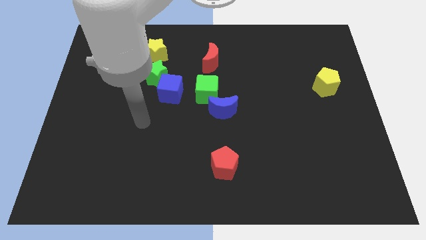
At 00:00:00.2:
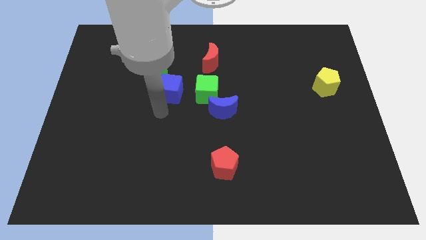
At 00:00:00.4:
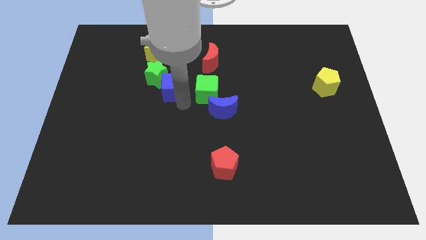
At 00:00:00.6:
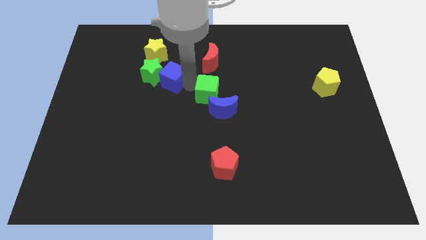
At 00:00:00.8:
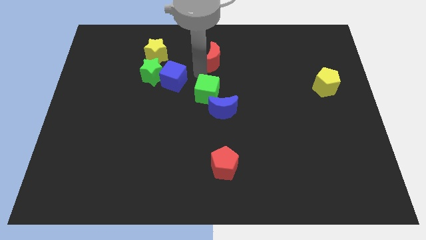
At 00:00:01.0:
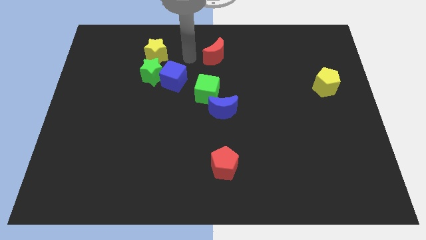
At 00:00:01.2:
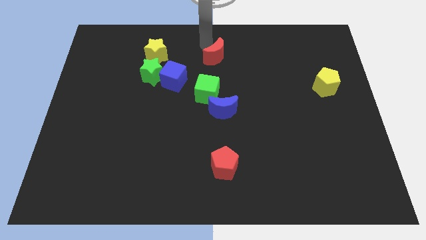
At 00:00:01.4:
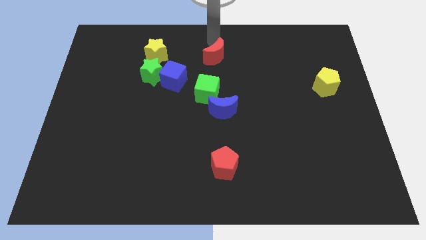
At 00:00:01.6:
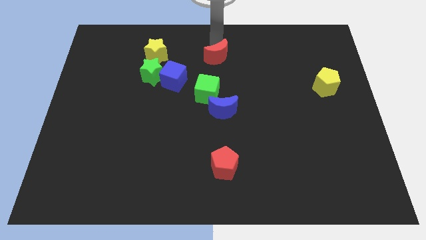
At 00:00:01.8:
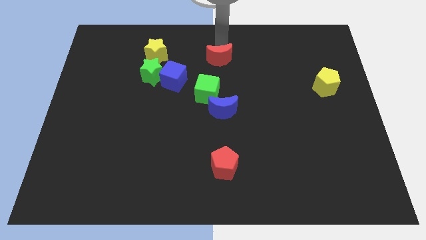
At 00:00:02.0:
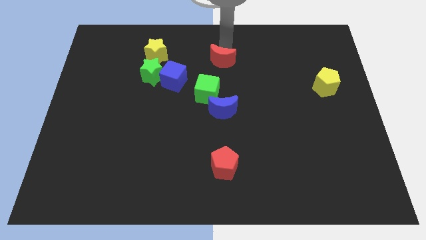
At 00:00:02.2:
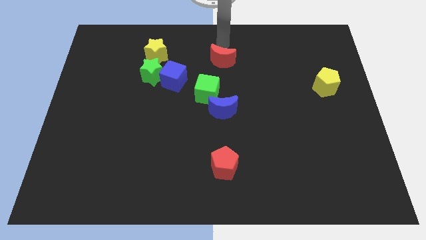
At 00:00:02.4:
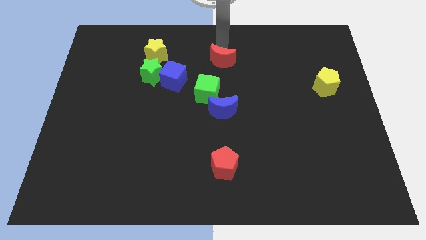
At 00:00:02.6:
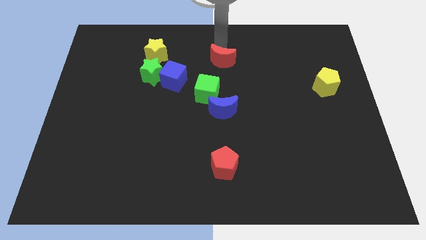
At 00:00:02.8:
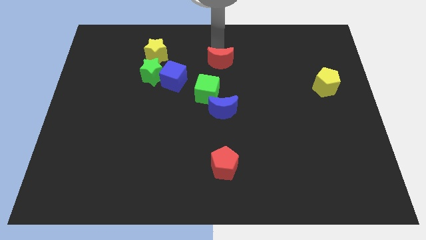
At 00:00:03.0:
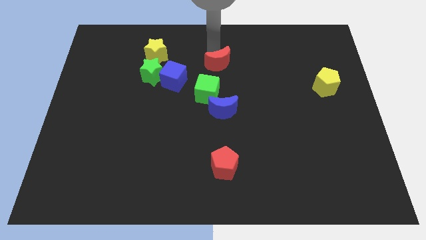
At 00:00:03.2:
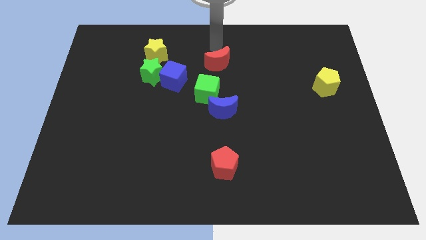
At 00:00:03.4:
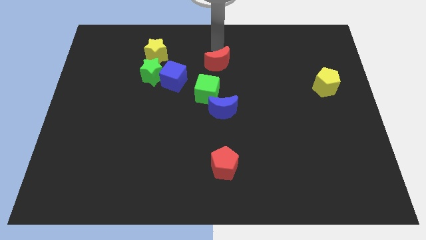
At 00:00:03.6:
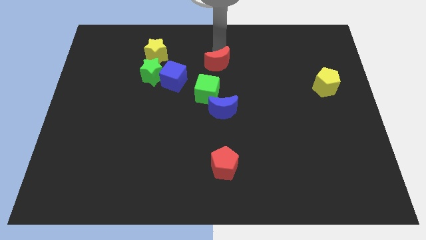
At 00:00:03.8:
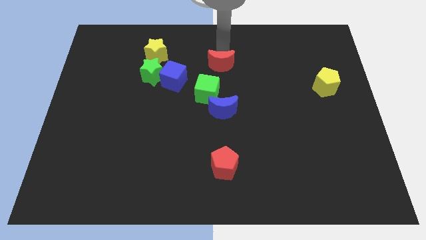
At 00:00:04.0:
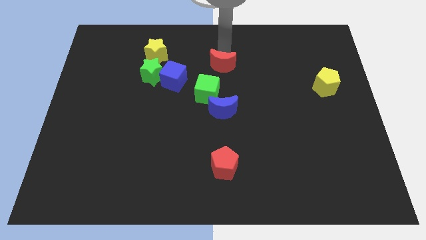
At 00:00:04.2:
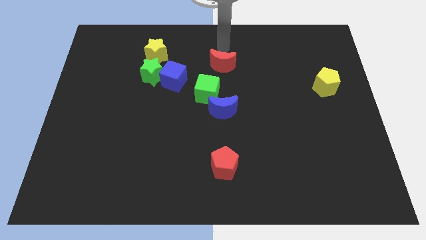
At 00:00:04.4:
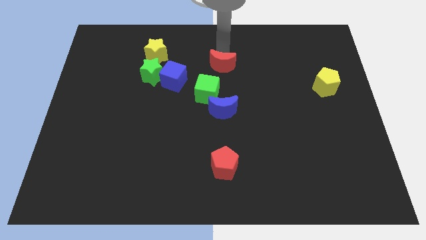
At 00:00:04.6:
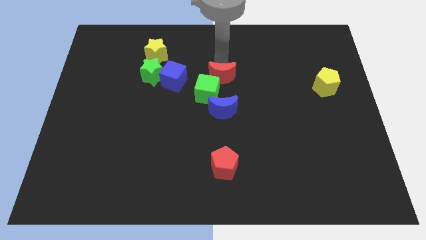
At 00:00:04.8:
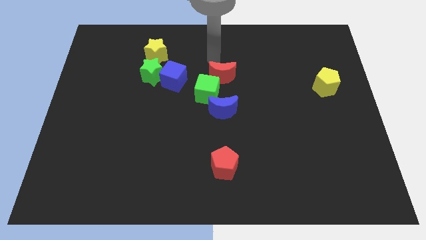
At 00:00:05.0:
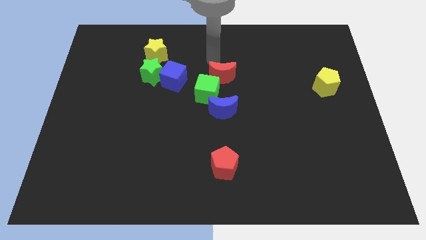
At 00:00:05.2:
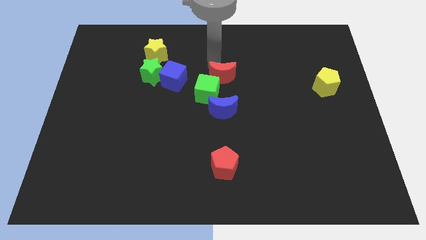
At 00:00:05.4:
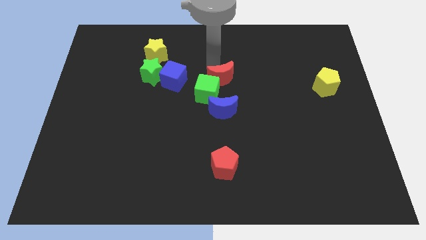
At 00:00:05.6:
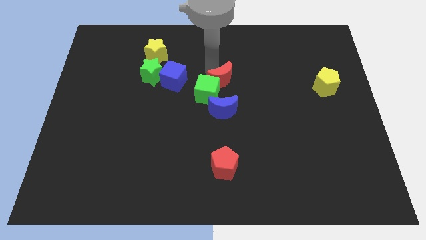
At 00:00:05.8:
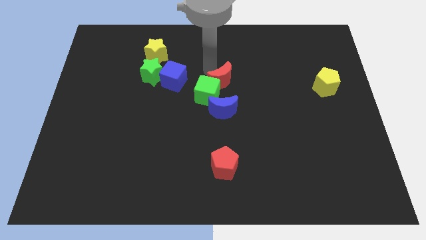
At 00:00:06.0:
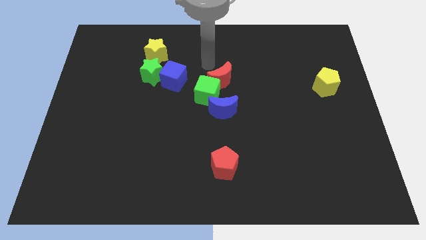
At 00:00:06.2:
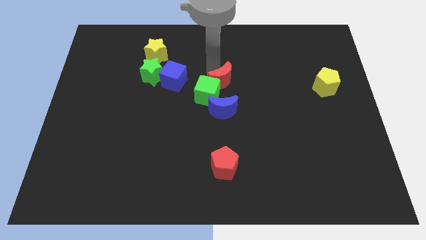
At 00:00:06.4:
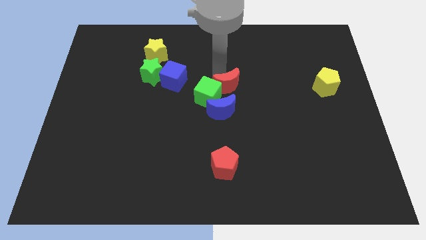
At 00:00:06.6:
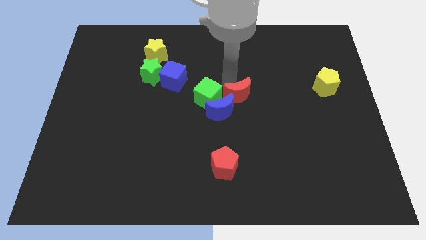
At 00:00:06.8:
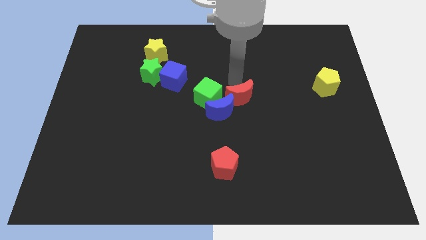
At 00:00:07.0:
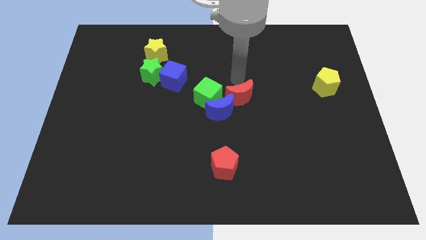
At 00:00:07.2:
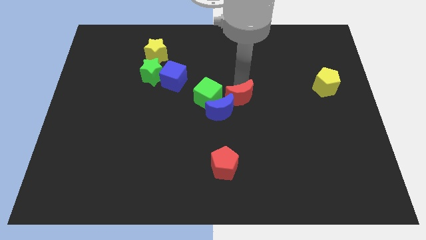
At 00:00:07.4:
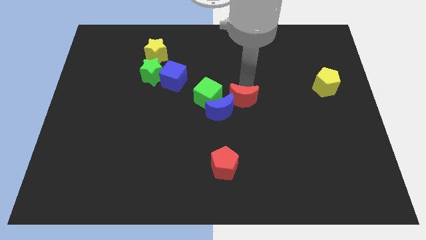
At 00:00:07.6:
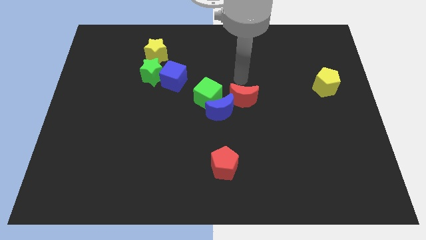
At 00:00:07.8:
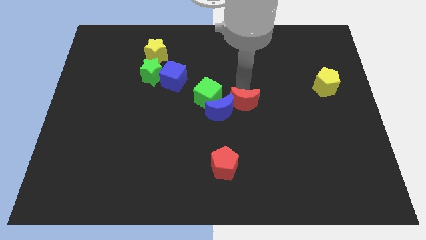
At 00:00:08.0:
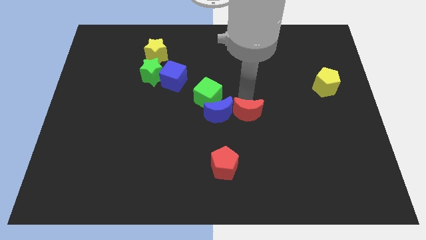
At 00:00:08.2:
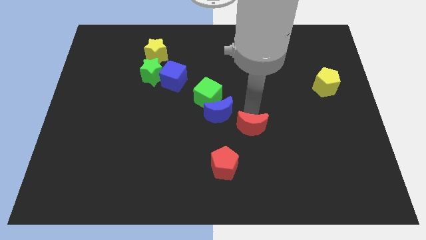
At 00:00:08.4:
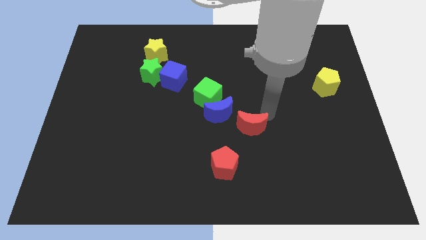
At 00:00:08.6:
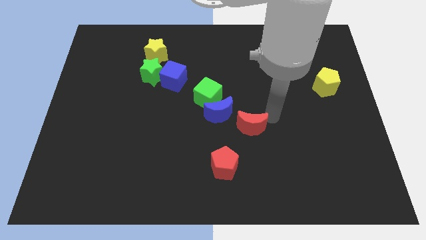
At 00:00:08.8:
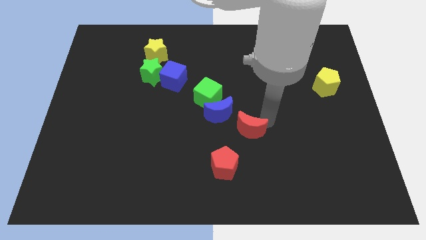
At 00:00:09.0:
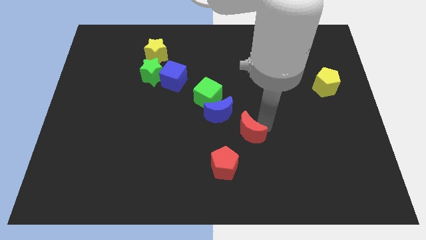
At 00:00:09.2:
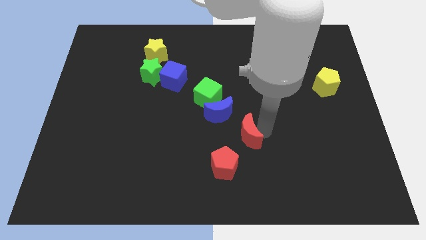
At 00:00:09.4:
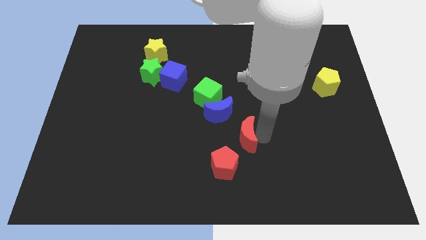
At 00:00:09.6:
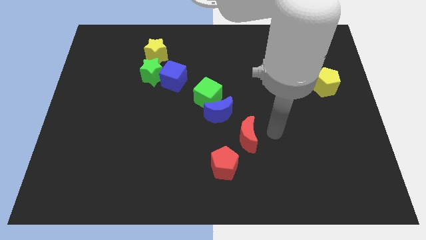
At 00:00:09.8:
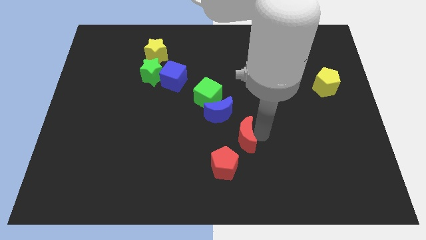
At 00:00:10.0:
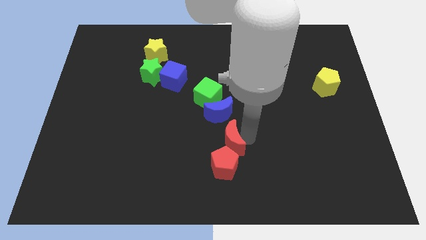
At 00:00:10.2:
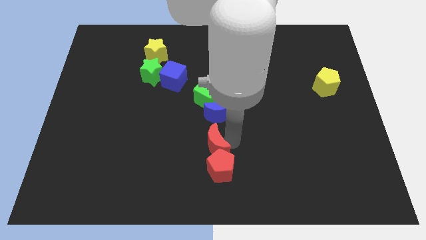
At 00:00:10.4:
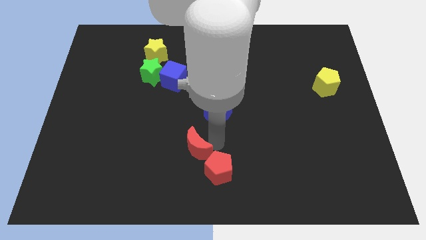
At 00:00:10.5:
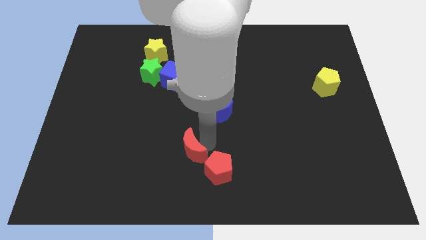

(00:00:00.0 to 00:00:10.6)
push the red moon to the left of the red pentagon
